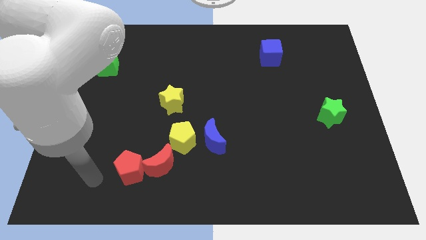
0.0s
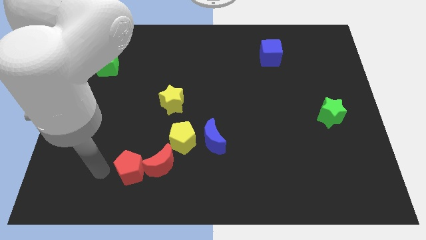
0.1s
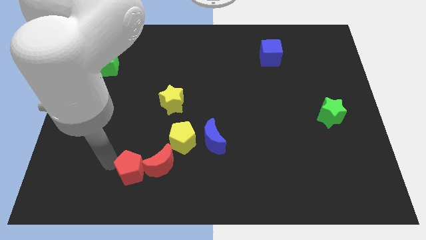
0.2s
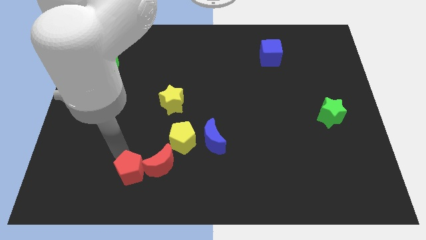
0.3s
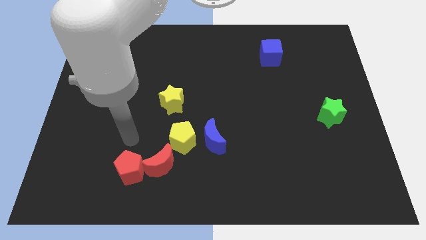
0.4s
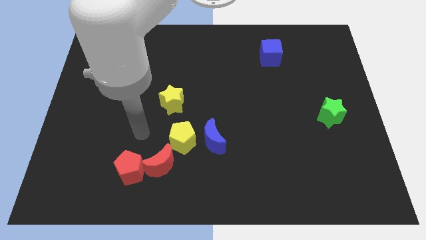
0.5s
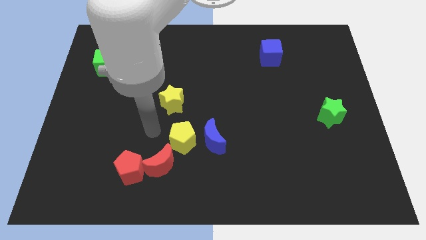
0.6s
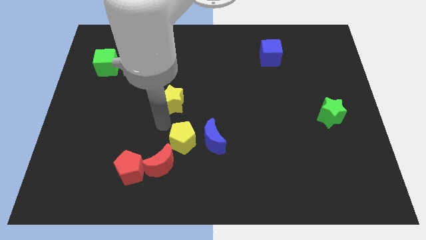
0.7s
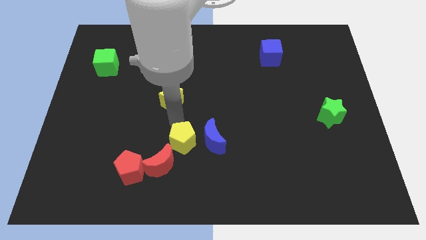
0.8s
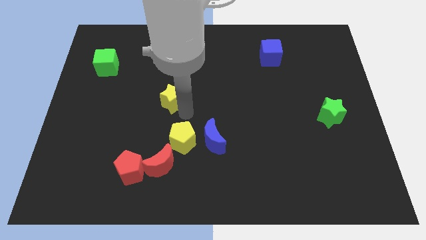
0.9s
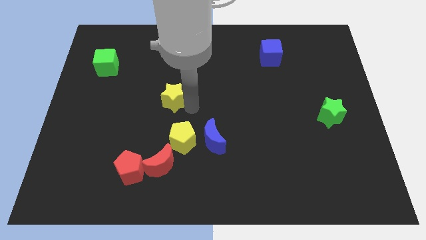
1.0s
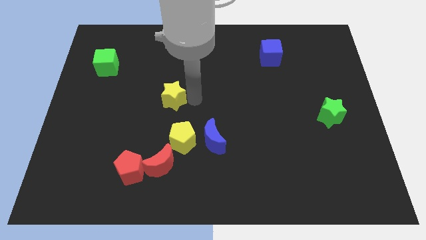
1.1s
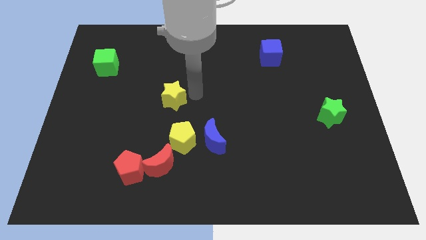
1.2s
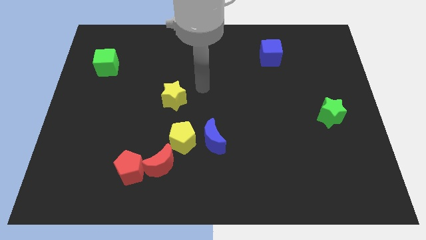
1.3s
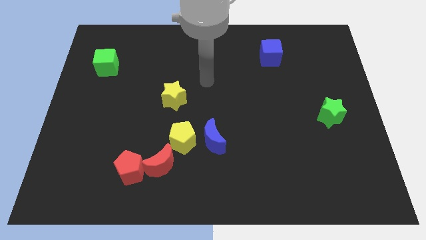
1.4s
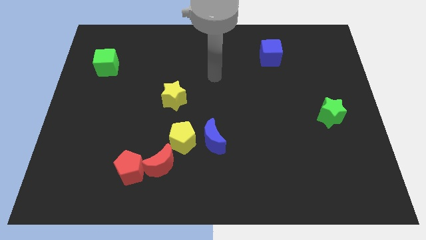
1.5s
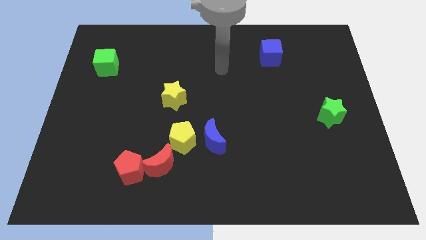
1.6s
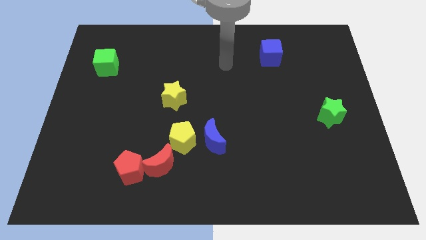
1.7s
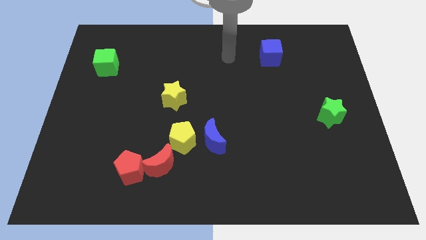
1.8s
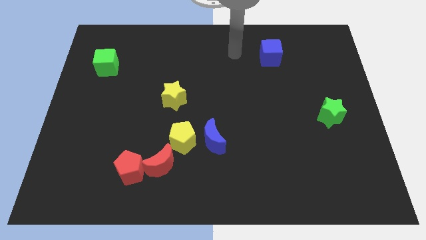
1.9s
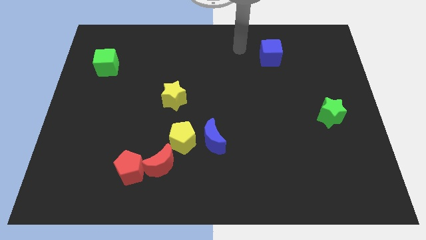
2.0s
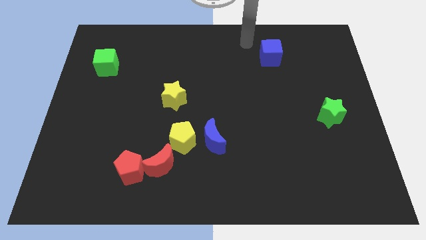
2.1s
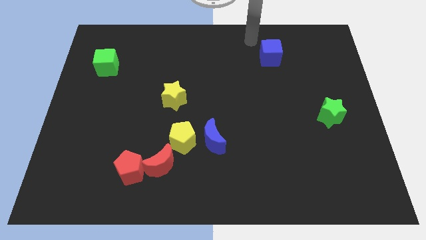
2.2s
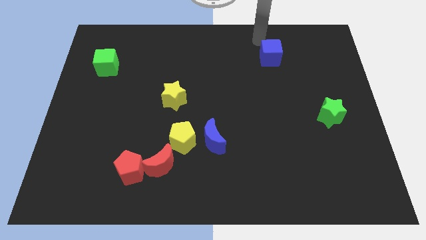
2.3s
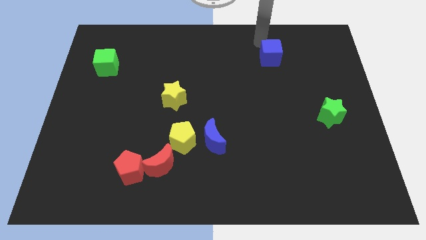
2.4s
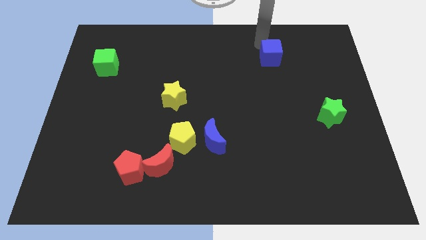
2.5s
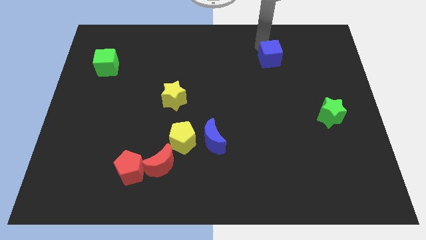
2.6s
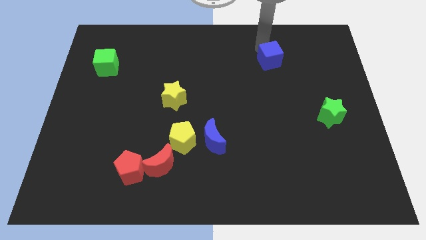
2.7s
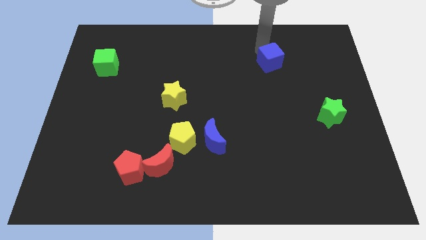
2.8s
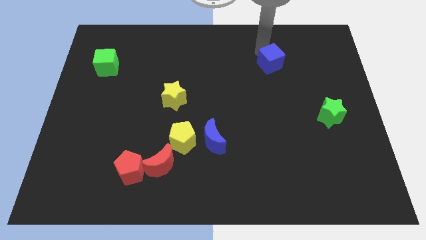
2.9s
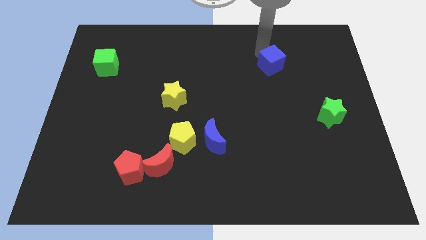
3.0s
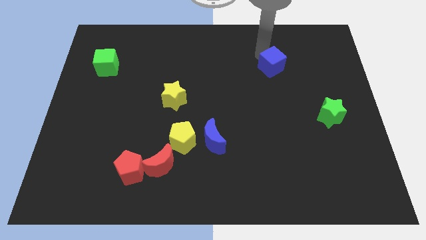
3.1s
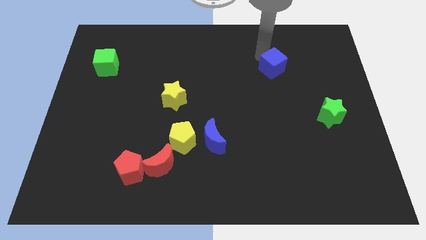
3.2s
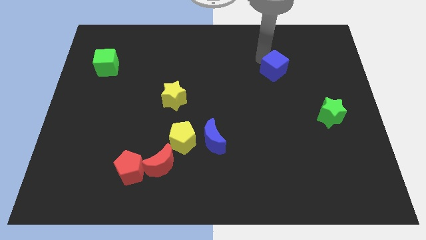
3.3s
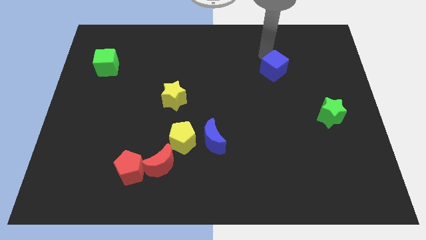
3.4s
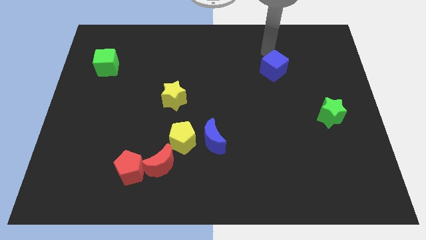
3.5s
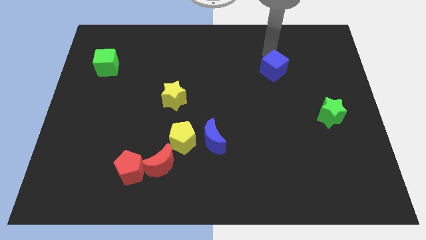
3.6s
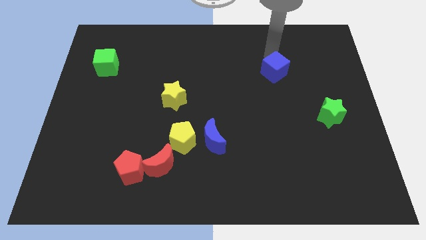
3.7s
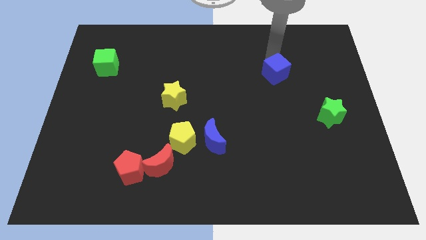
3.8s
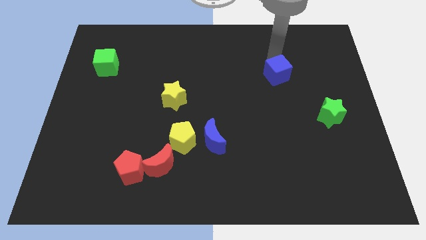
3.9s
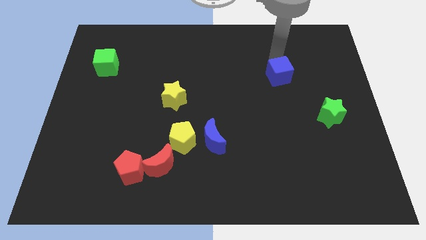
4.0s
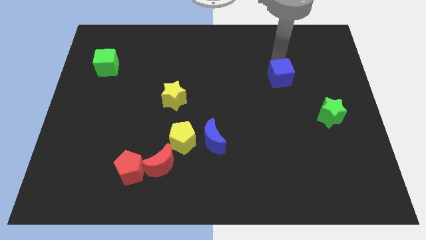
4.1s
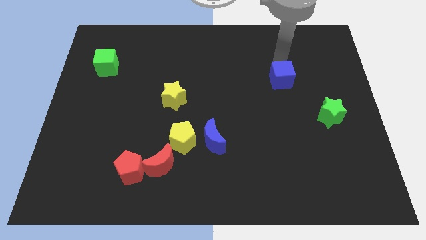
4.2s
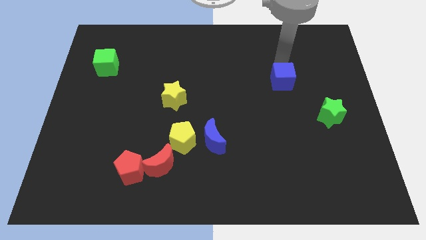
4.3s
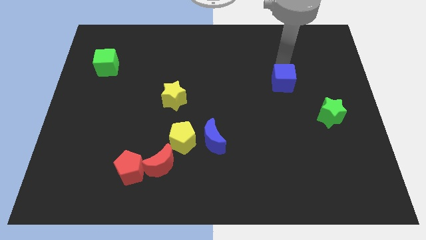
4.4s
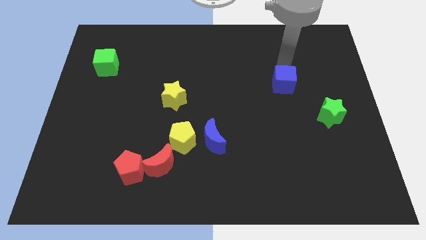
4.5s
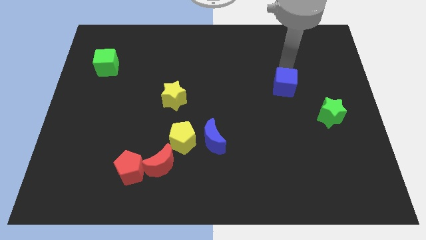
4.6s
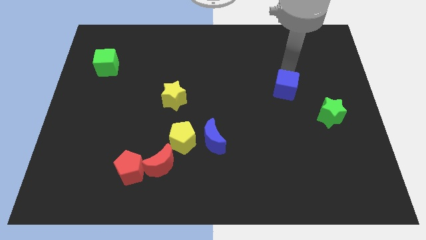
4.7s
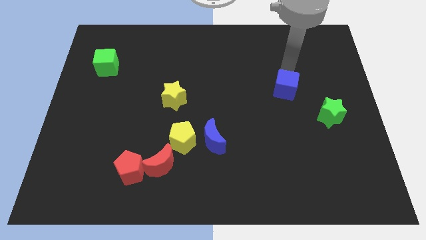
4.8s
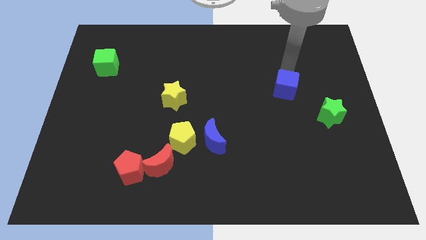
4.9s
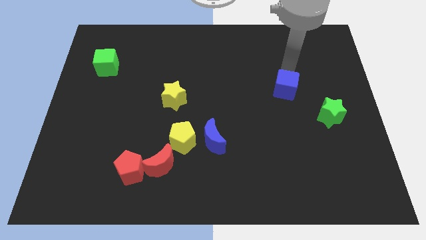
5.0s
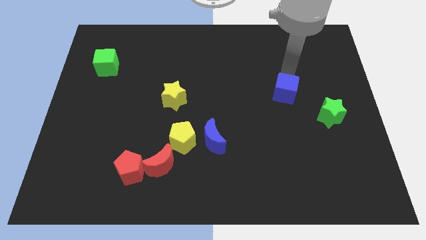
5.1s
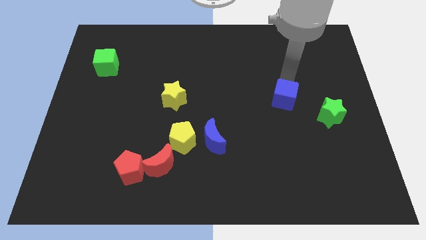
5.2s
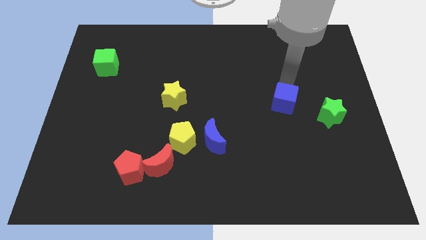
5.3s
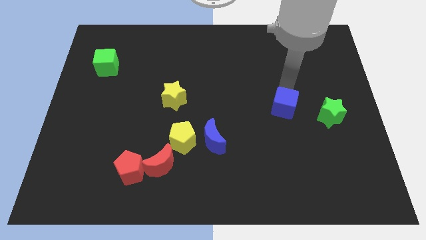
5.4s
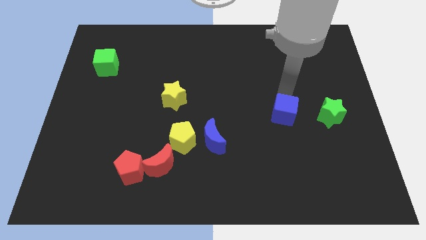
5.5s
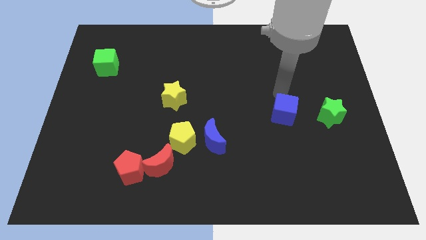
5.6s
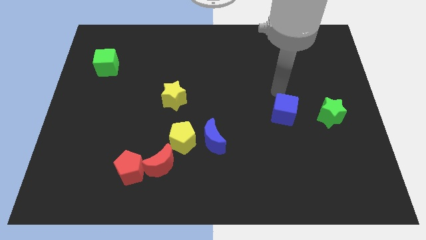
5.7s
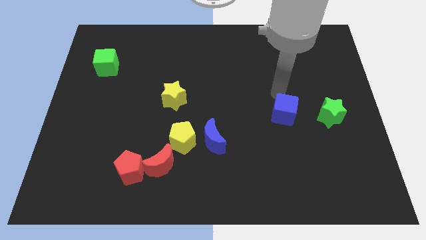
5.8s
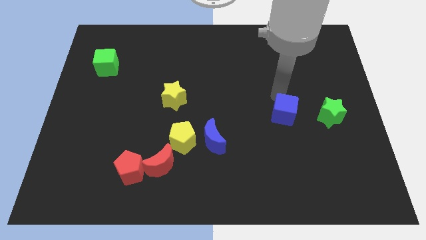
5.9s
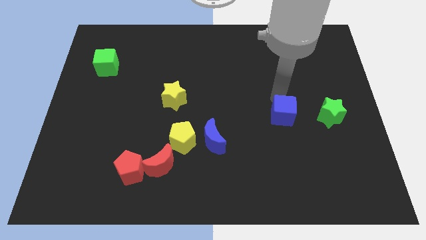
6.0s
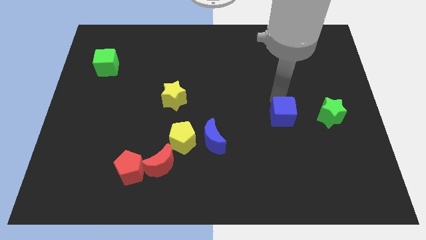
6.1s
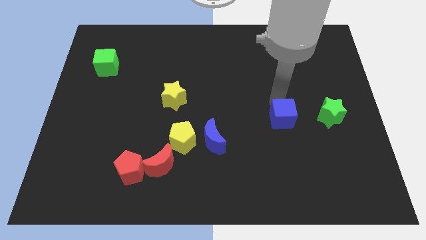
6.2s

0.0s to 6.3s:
move the blue cube down

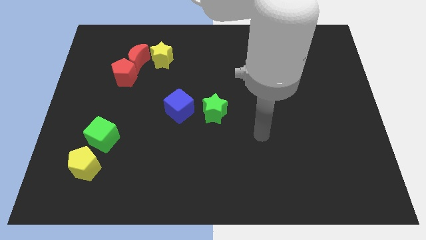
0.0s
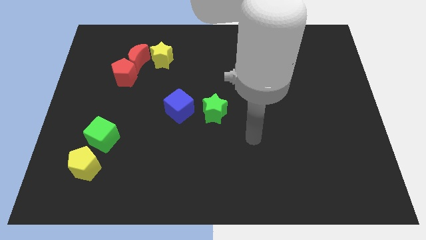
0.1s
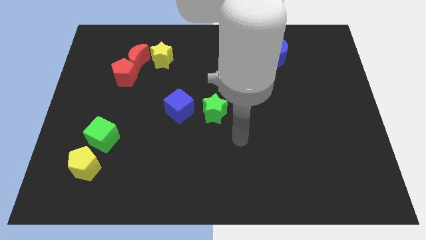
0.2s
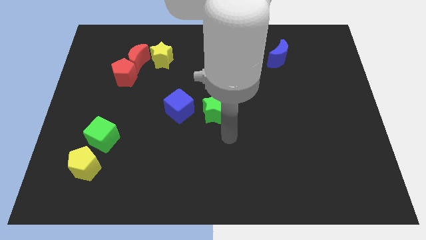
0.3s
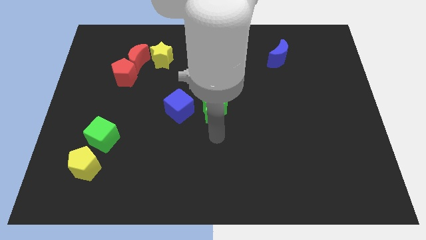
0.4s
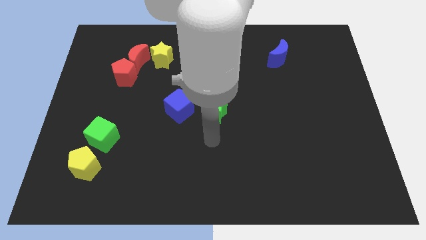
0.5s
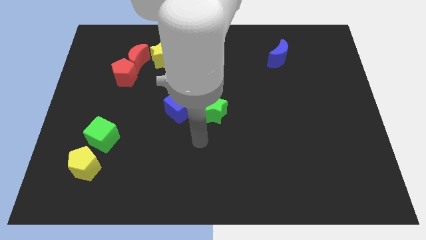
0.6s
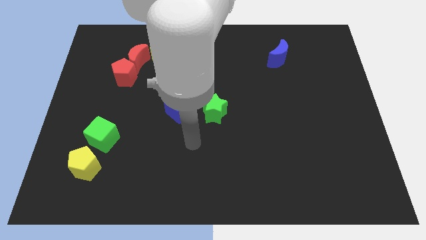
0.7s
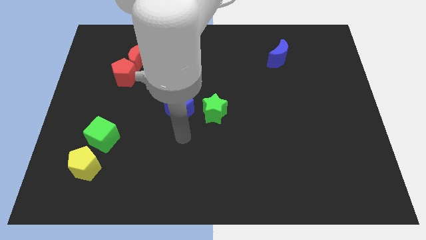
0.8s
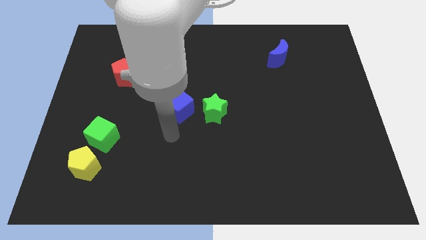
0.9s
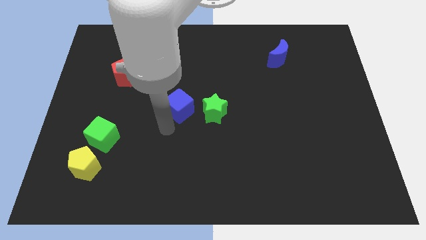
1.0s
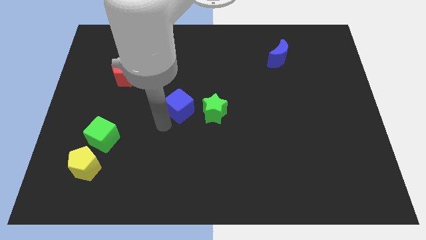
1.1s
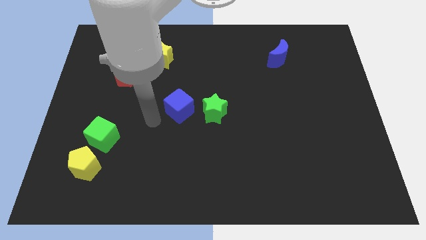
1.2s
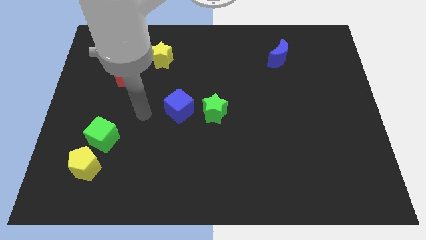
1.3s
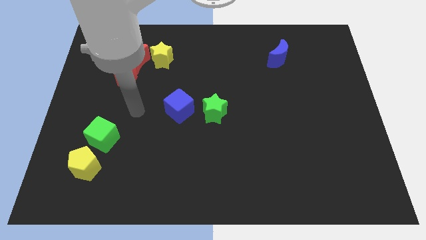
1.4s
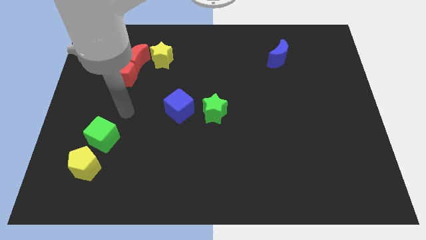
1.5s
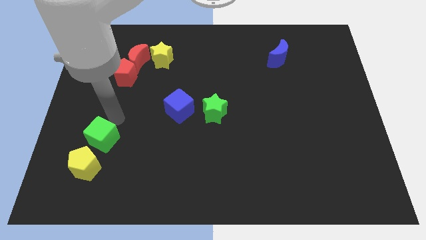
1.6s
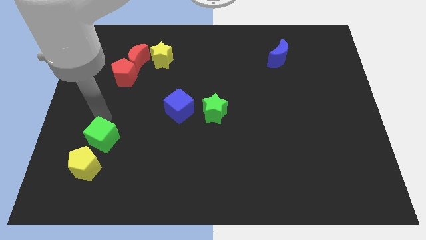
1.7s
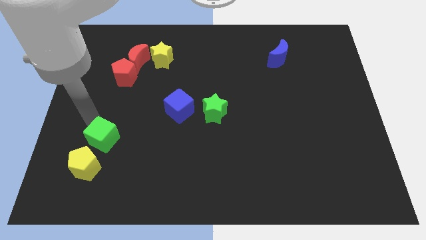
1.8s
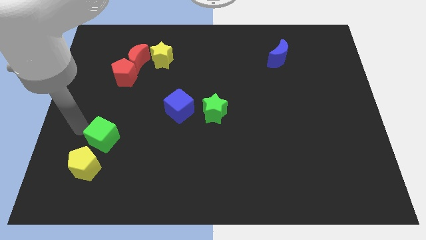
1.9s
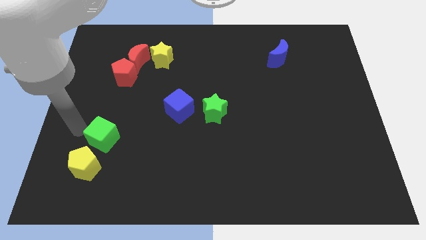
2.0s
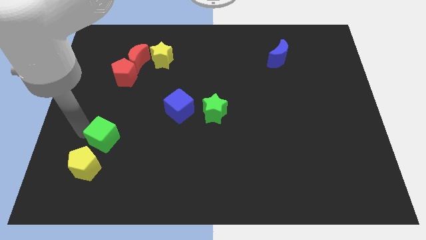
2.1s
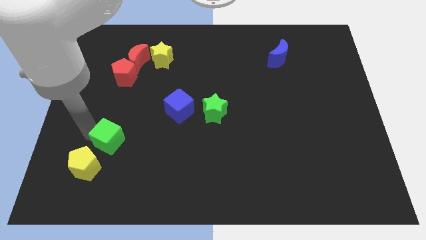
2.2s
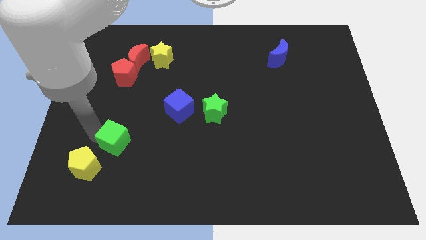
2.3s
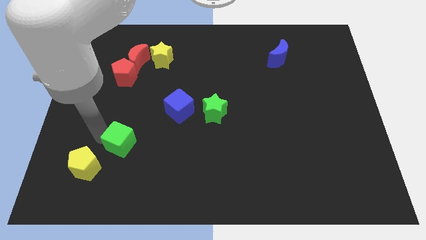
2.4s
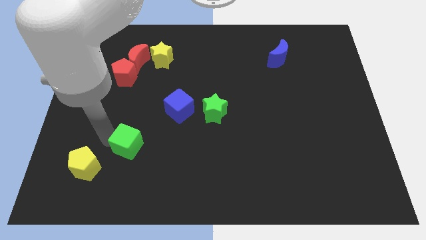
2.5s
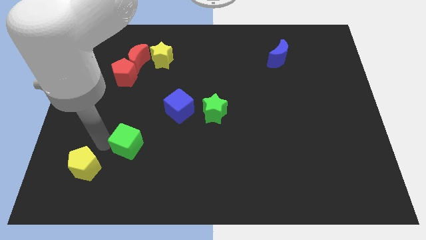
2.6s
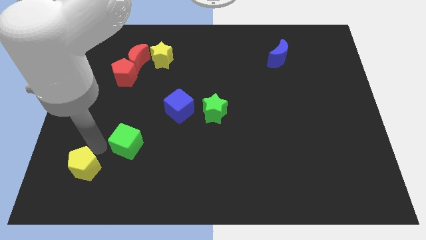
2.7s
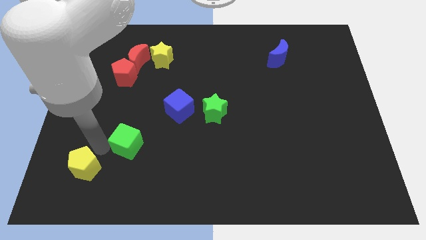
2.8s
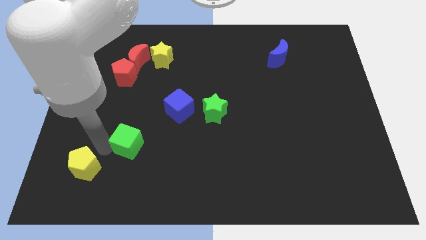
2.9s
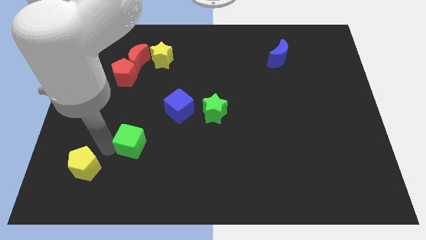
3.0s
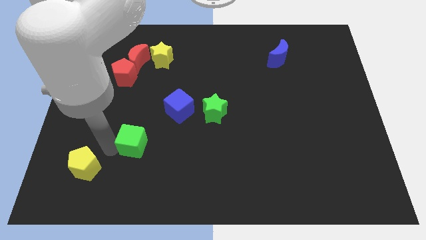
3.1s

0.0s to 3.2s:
slightly push the green cube to the right
